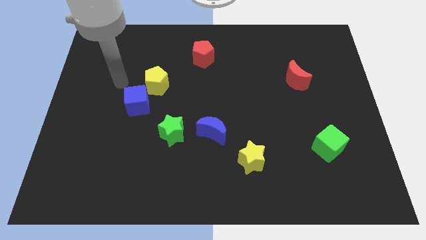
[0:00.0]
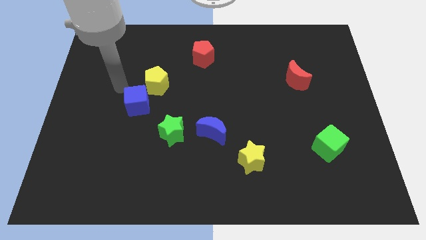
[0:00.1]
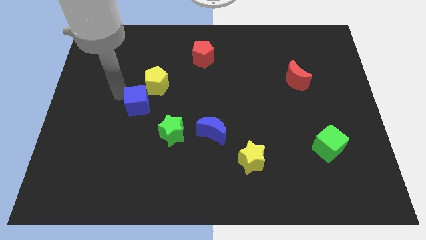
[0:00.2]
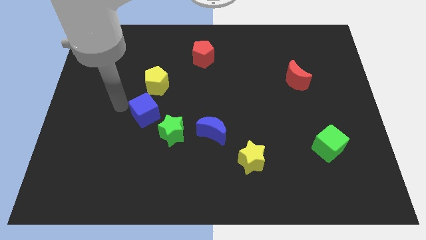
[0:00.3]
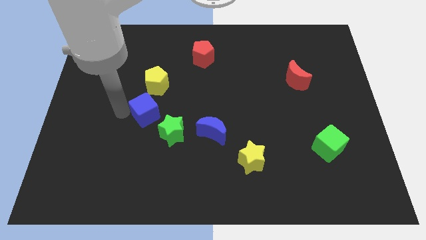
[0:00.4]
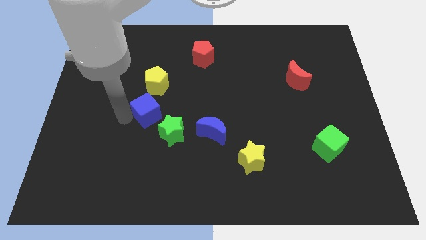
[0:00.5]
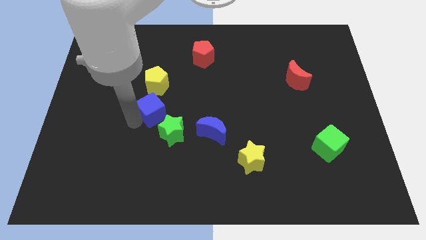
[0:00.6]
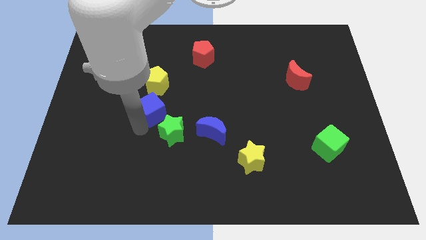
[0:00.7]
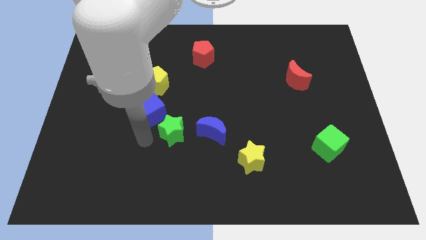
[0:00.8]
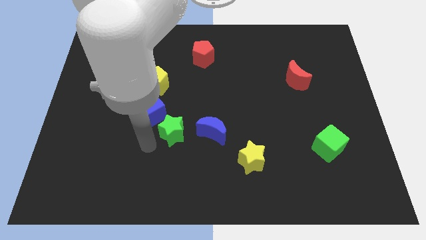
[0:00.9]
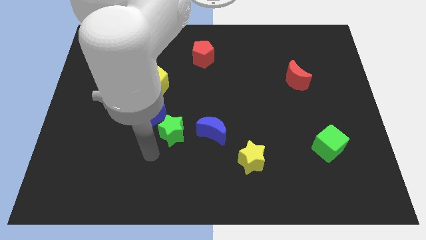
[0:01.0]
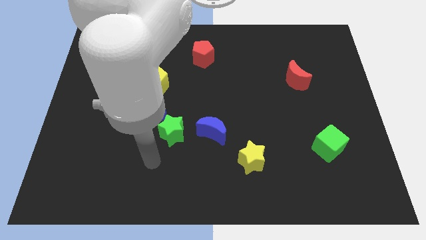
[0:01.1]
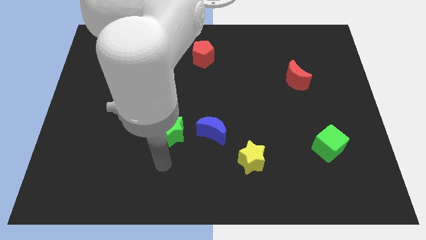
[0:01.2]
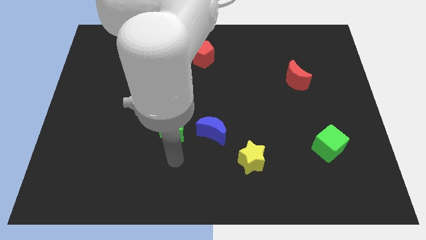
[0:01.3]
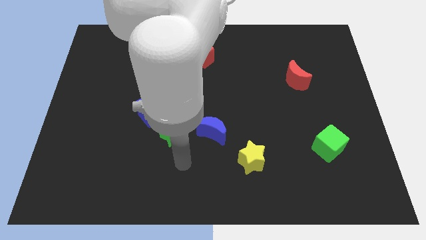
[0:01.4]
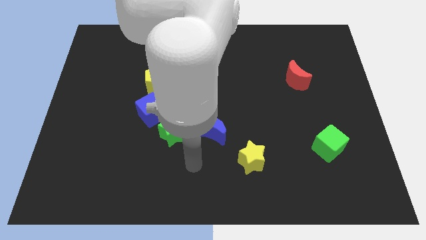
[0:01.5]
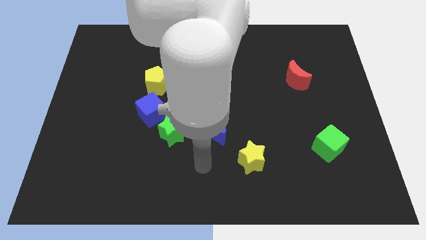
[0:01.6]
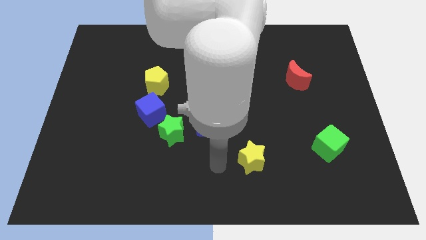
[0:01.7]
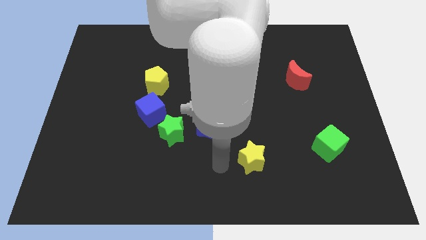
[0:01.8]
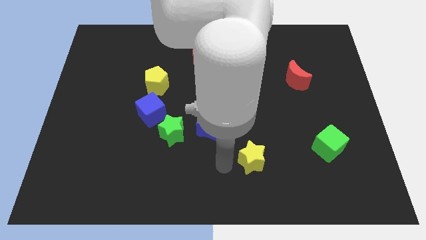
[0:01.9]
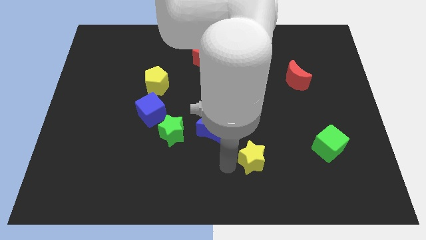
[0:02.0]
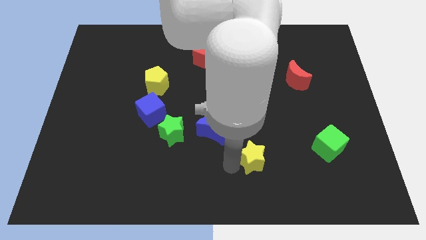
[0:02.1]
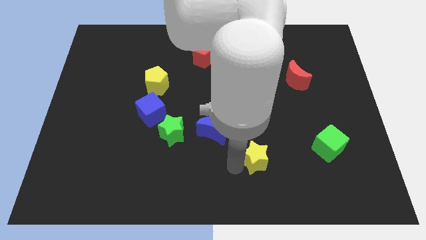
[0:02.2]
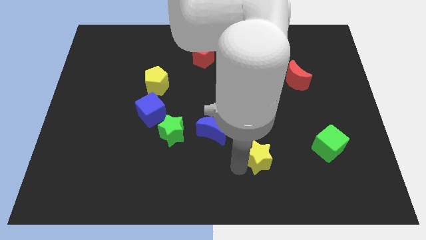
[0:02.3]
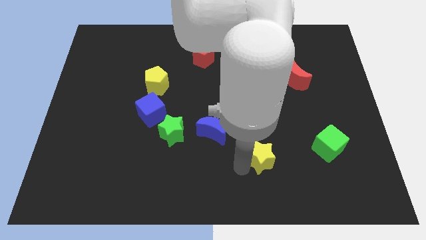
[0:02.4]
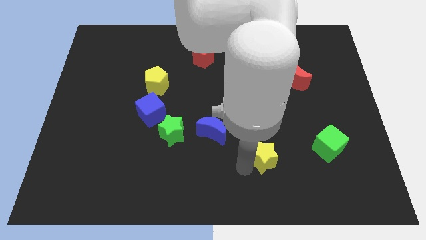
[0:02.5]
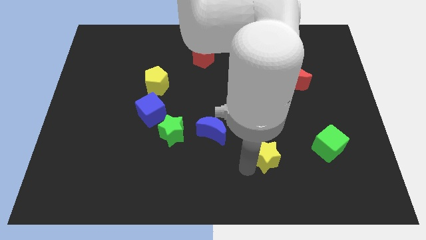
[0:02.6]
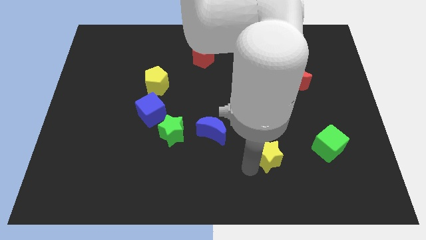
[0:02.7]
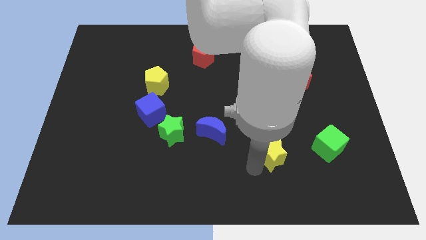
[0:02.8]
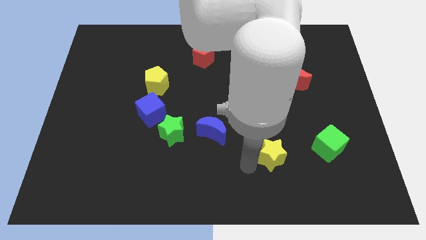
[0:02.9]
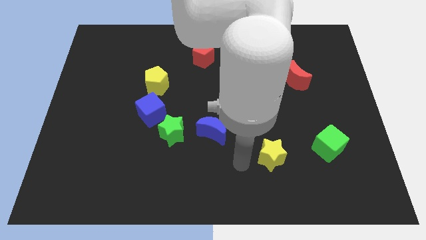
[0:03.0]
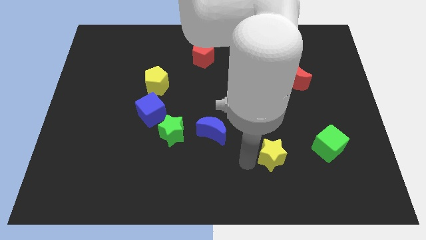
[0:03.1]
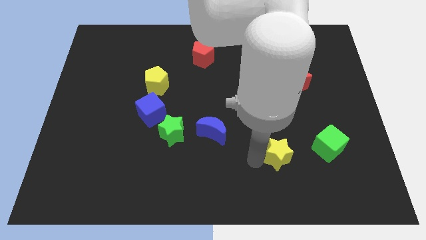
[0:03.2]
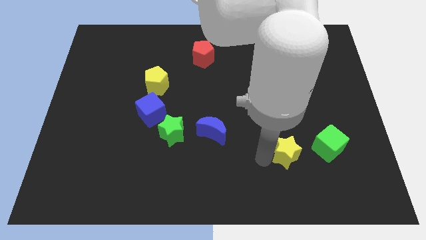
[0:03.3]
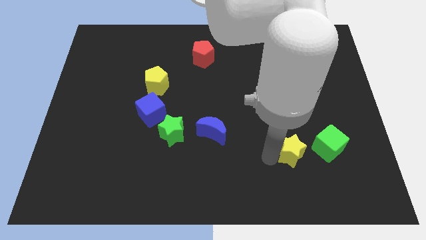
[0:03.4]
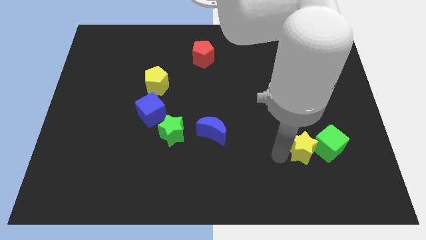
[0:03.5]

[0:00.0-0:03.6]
slide the yellow star to the green cube

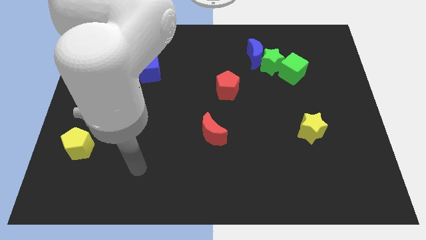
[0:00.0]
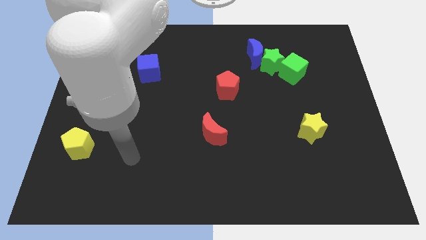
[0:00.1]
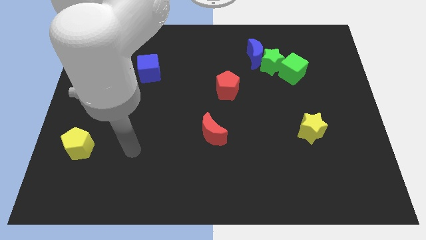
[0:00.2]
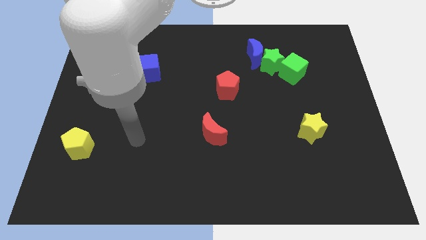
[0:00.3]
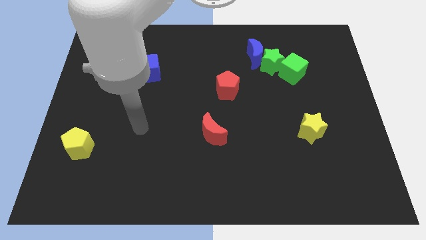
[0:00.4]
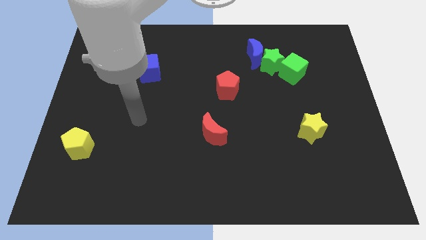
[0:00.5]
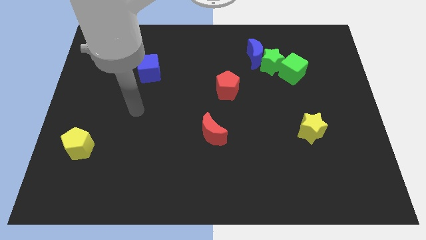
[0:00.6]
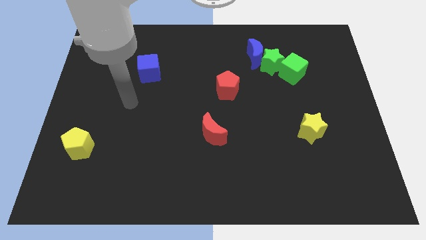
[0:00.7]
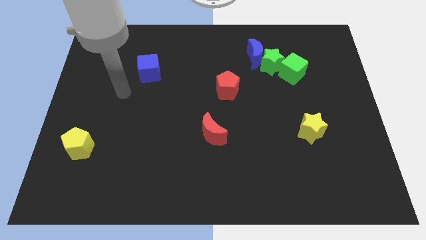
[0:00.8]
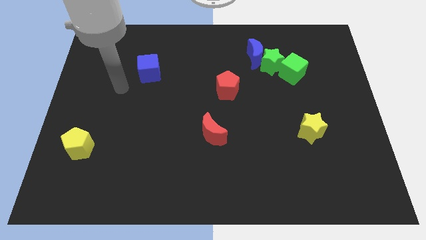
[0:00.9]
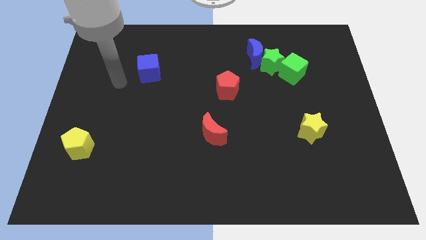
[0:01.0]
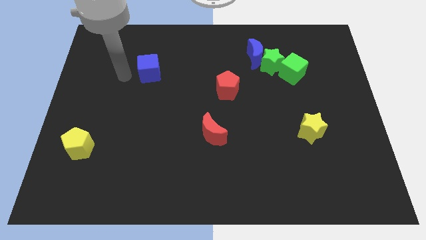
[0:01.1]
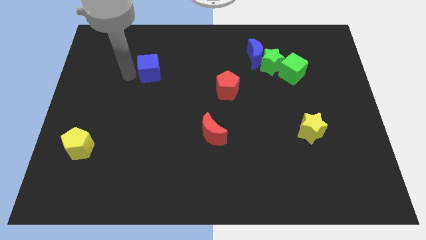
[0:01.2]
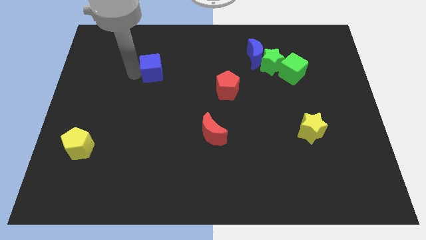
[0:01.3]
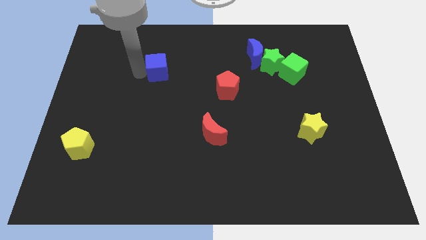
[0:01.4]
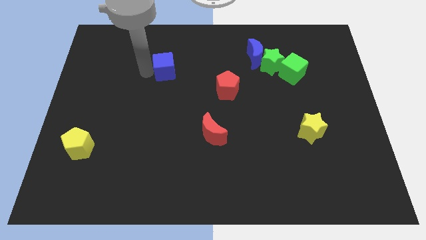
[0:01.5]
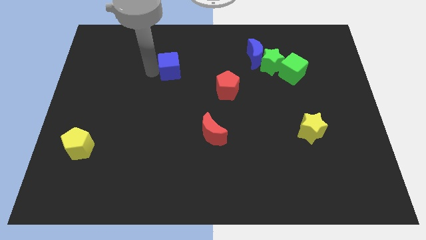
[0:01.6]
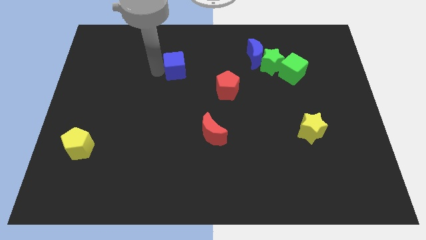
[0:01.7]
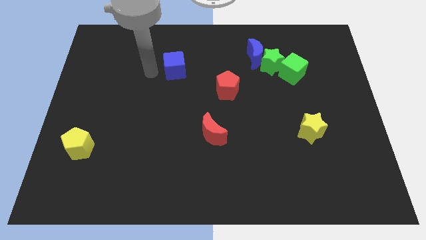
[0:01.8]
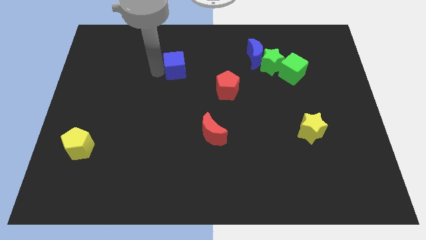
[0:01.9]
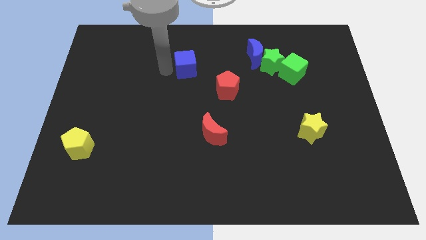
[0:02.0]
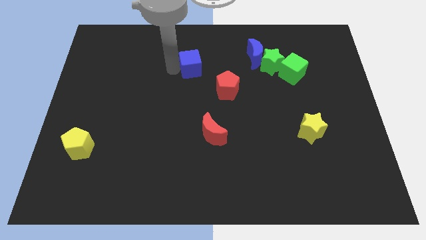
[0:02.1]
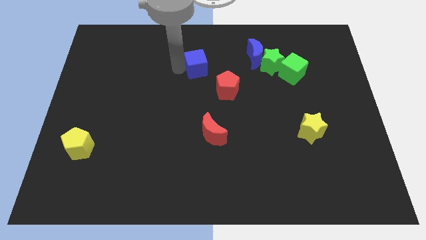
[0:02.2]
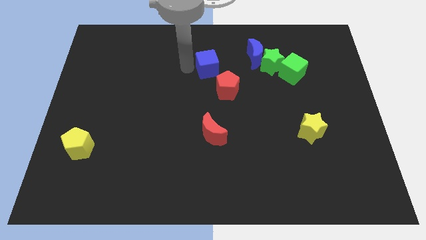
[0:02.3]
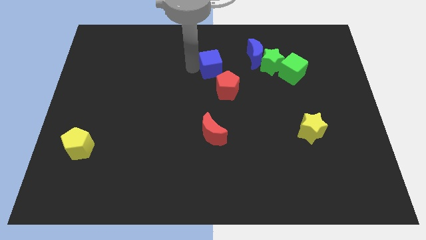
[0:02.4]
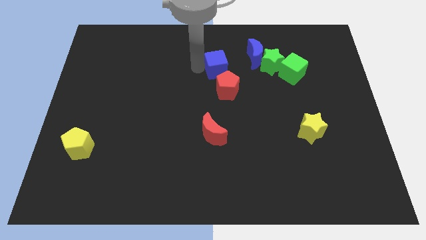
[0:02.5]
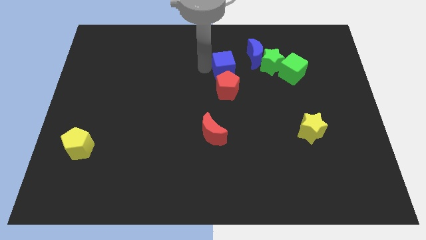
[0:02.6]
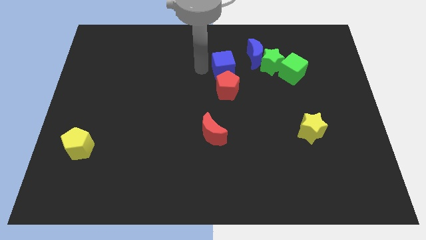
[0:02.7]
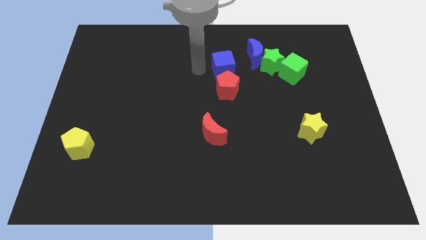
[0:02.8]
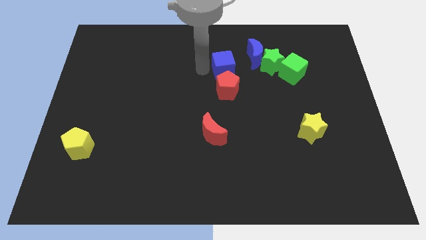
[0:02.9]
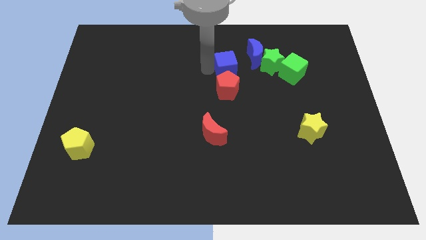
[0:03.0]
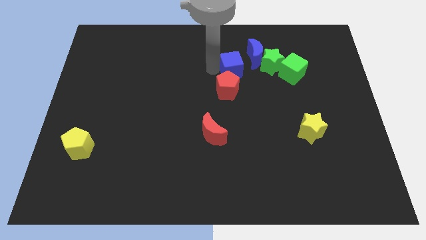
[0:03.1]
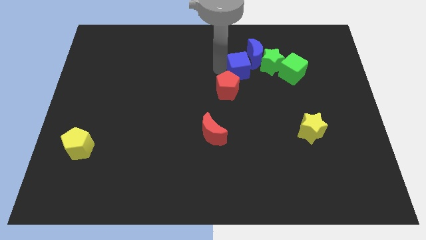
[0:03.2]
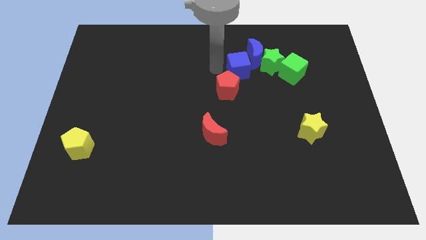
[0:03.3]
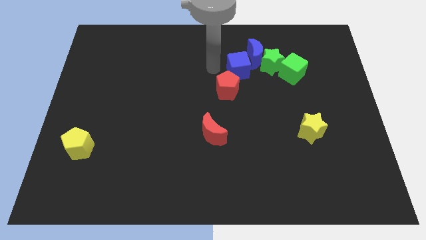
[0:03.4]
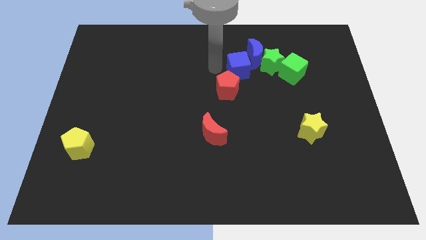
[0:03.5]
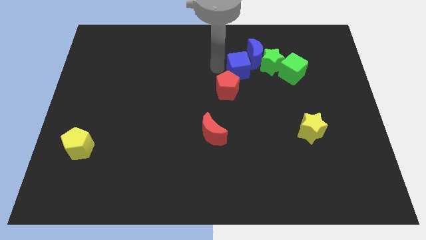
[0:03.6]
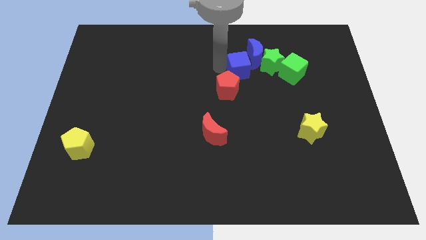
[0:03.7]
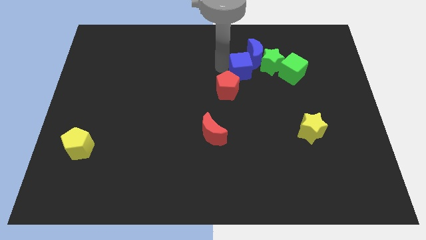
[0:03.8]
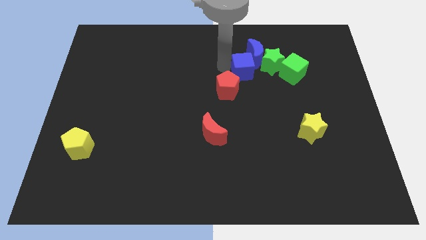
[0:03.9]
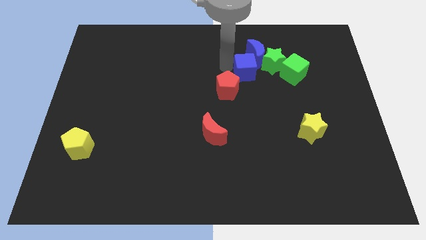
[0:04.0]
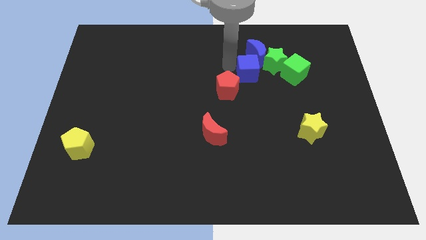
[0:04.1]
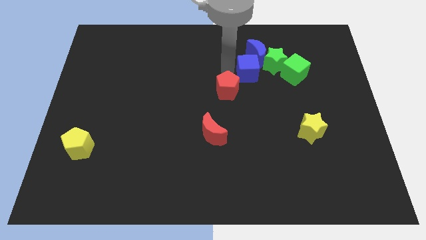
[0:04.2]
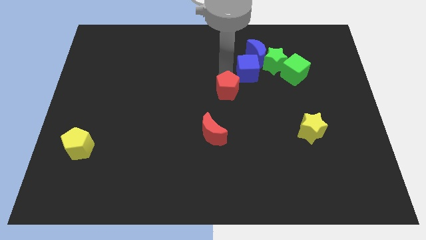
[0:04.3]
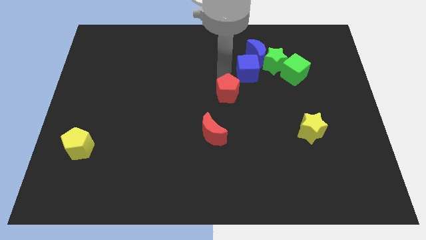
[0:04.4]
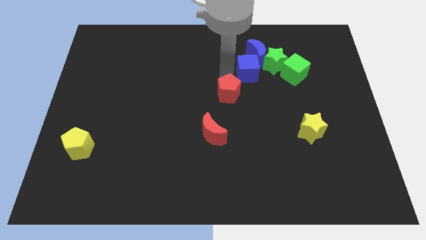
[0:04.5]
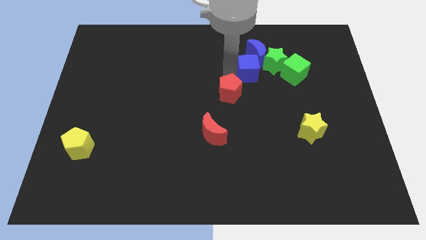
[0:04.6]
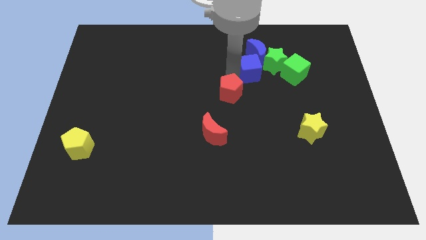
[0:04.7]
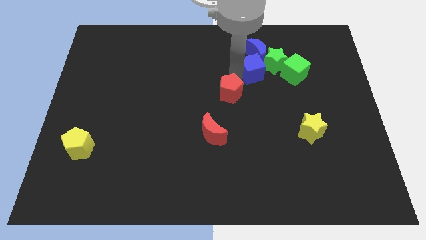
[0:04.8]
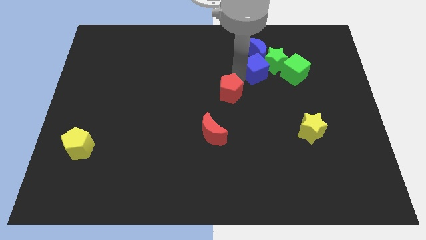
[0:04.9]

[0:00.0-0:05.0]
slide the blue cube close to the green star
